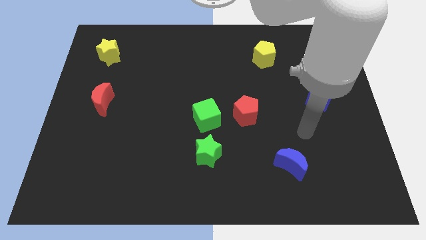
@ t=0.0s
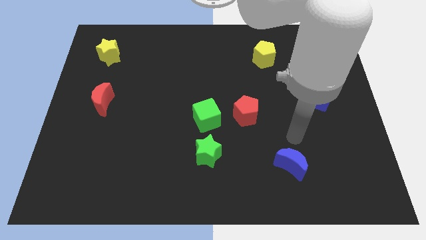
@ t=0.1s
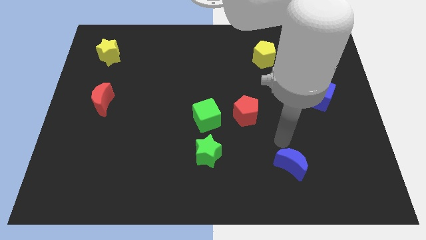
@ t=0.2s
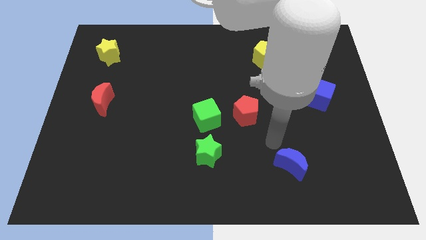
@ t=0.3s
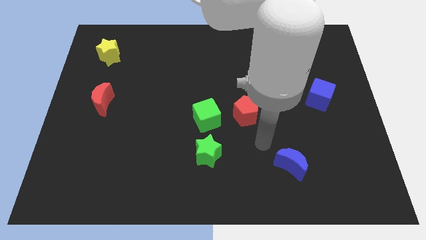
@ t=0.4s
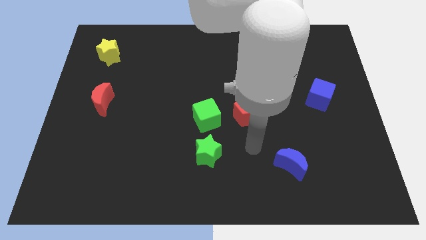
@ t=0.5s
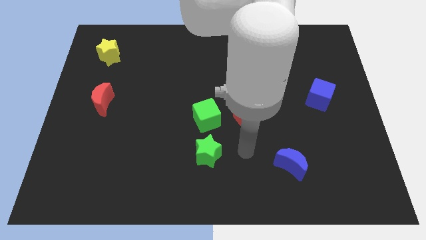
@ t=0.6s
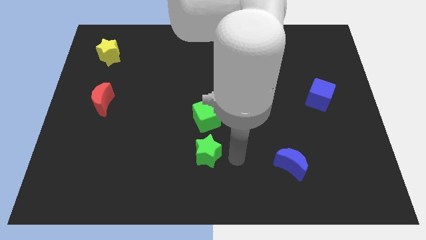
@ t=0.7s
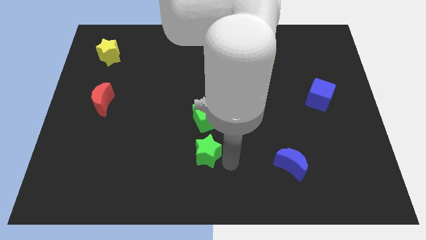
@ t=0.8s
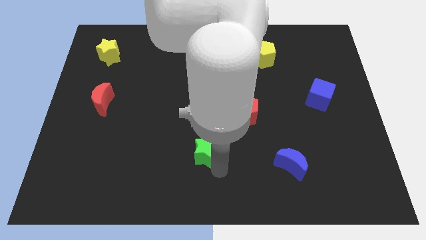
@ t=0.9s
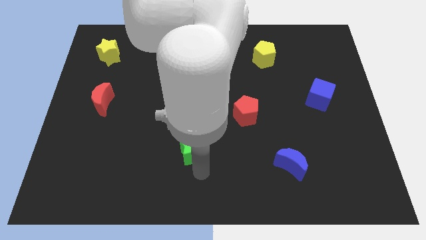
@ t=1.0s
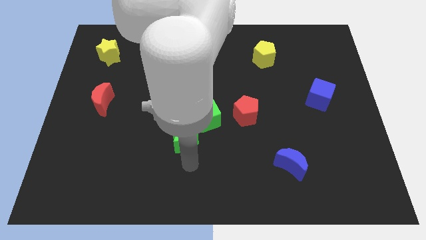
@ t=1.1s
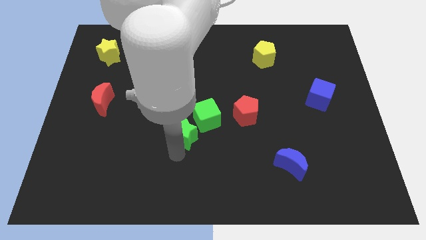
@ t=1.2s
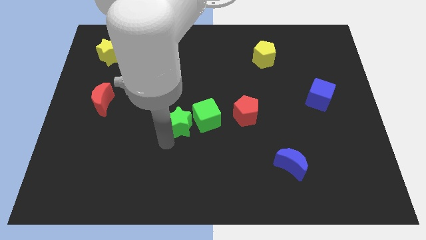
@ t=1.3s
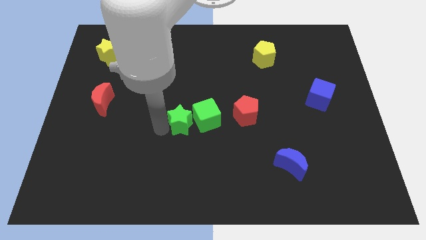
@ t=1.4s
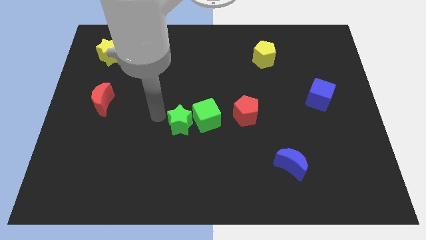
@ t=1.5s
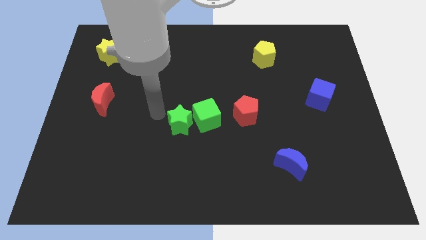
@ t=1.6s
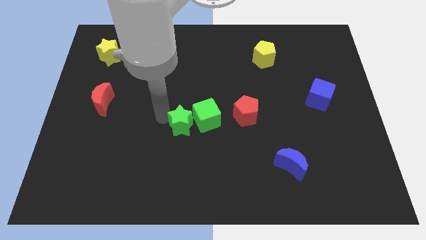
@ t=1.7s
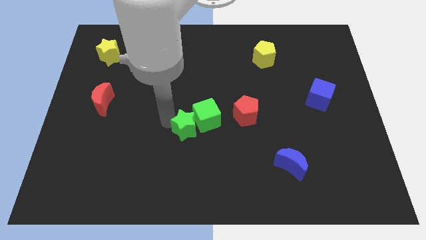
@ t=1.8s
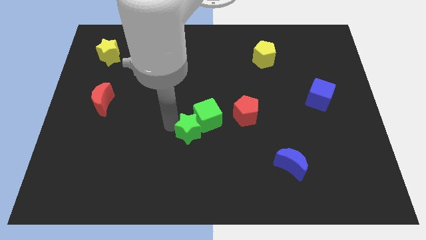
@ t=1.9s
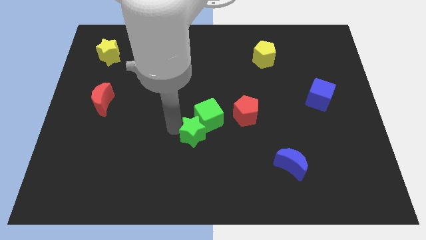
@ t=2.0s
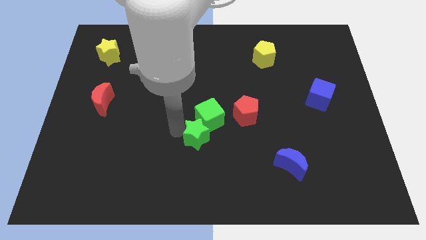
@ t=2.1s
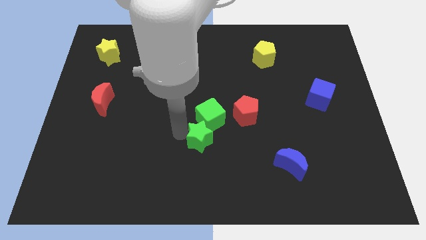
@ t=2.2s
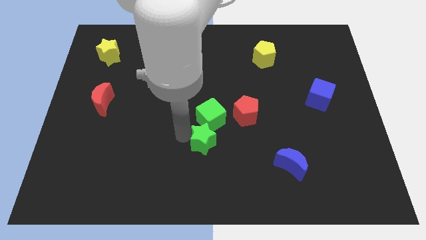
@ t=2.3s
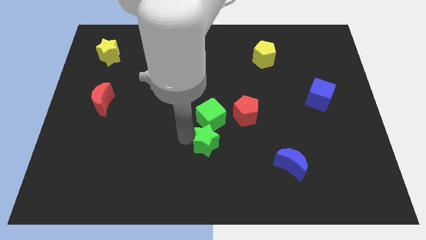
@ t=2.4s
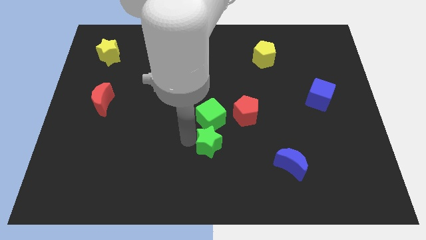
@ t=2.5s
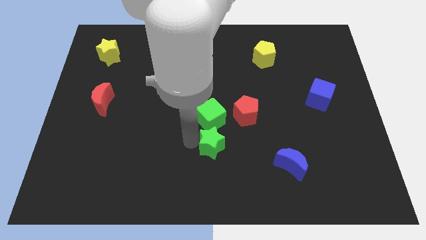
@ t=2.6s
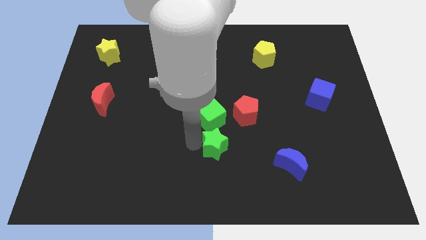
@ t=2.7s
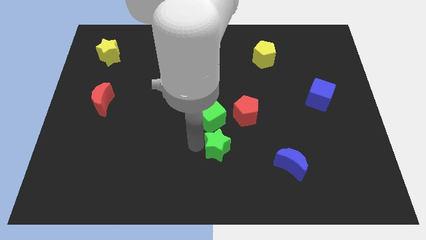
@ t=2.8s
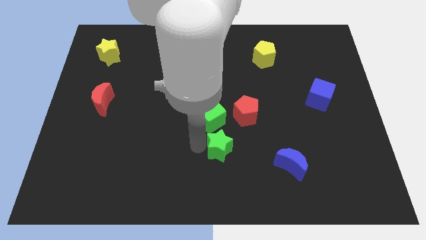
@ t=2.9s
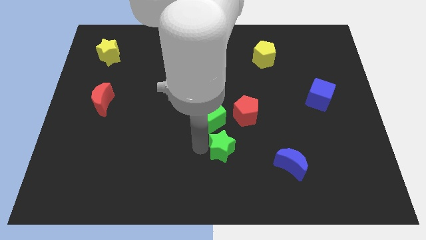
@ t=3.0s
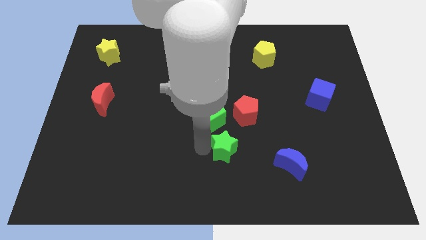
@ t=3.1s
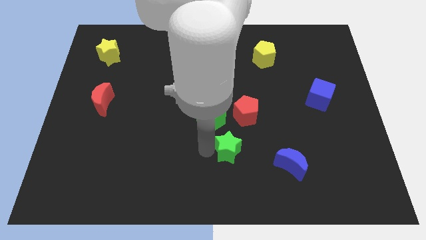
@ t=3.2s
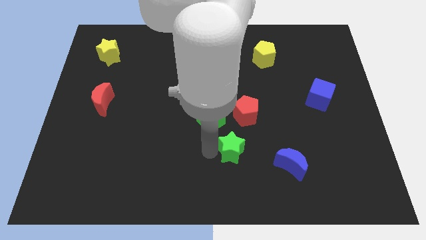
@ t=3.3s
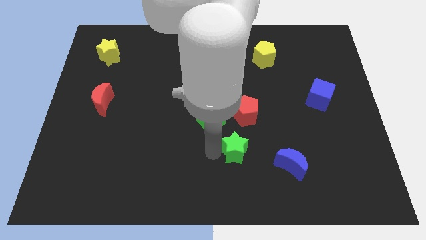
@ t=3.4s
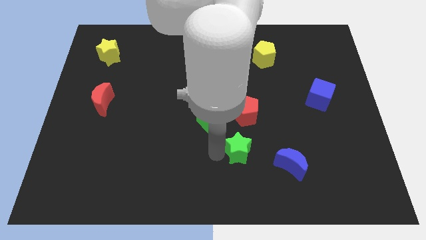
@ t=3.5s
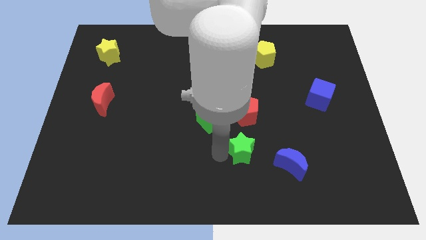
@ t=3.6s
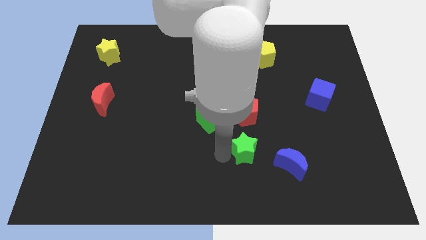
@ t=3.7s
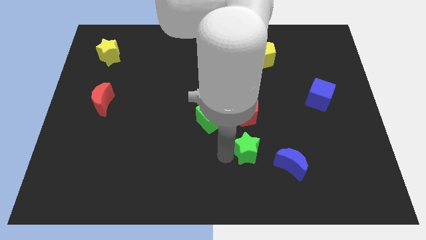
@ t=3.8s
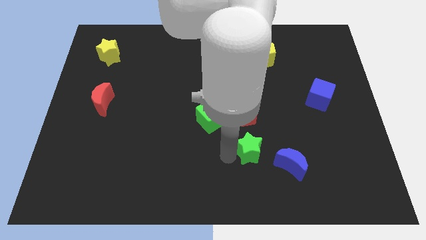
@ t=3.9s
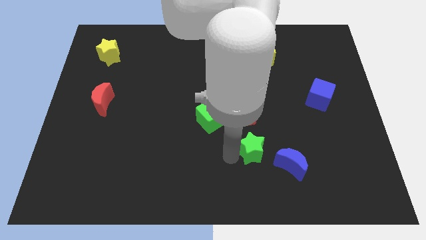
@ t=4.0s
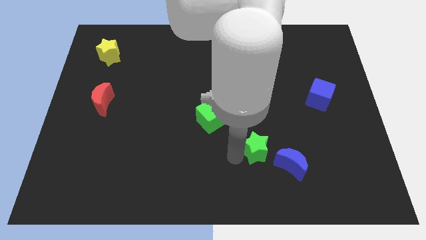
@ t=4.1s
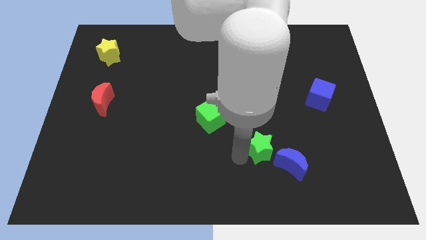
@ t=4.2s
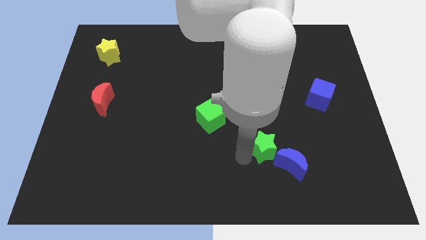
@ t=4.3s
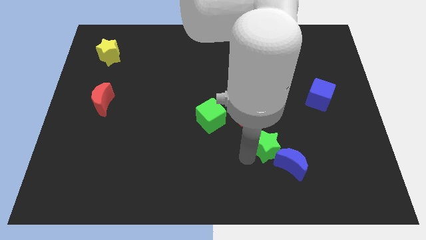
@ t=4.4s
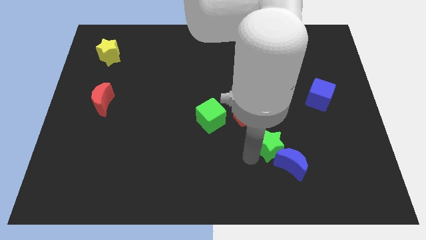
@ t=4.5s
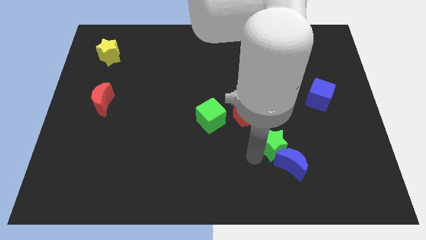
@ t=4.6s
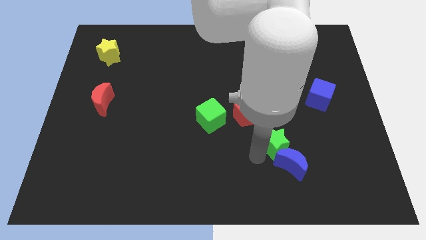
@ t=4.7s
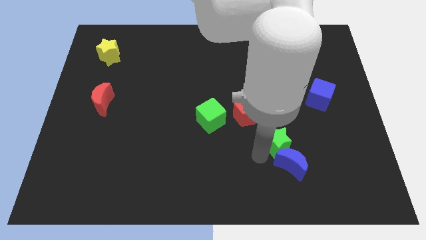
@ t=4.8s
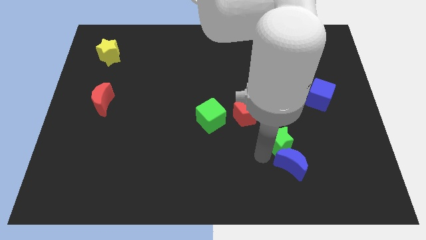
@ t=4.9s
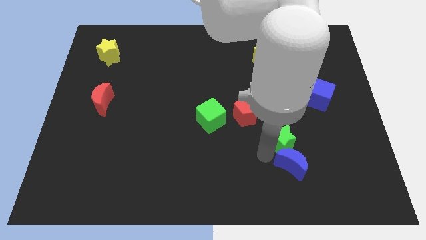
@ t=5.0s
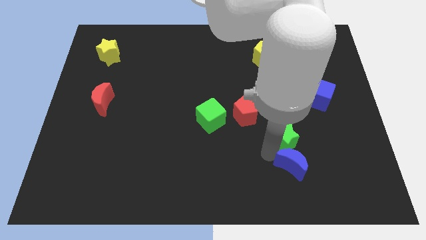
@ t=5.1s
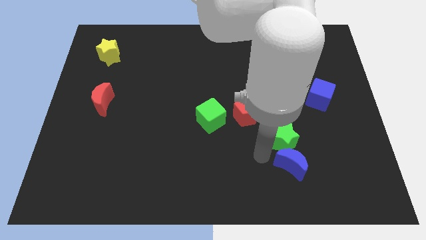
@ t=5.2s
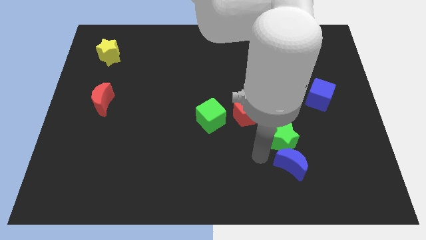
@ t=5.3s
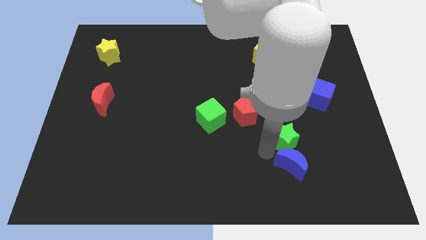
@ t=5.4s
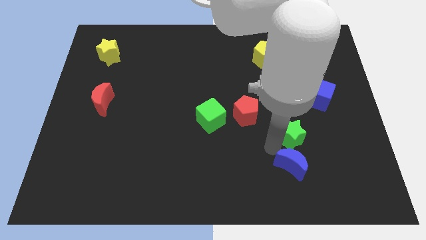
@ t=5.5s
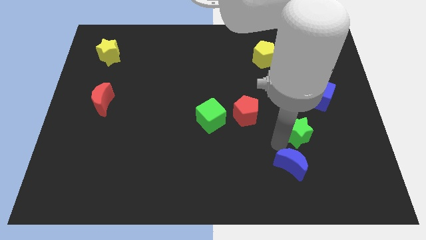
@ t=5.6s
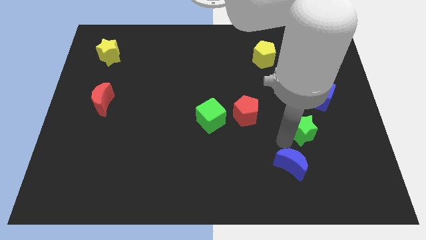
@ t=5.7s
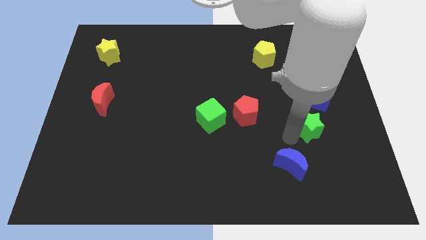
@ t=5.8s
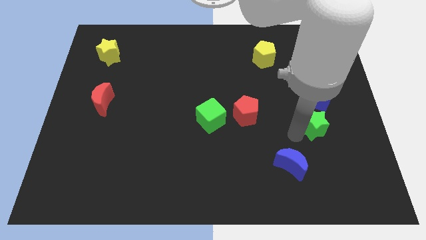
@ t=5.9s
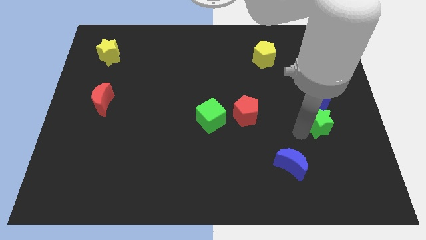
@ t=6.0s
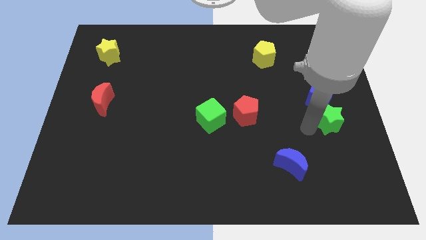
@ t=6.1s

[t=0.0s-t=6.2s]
put the green star to the right side

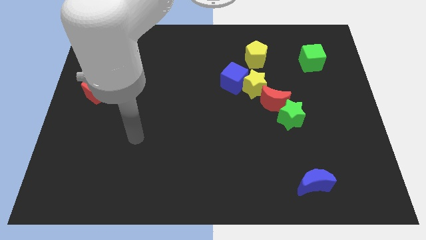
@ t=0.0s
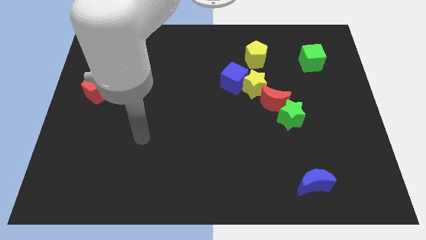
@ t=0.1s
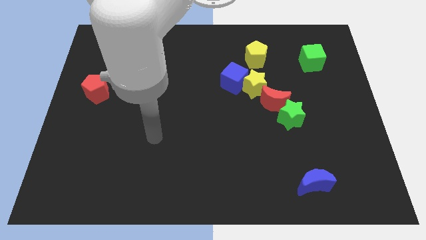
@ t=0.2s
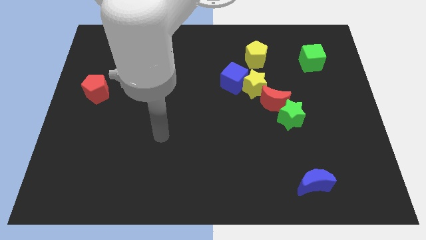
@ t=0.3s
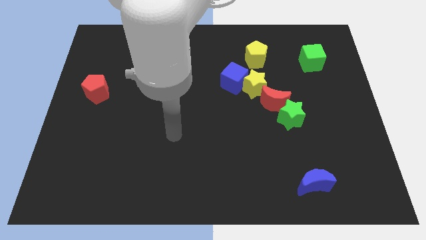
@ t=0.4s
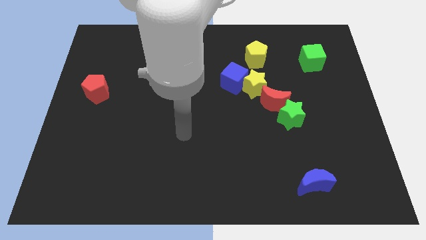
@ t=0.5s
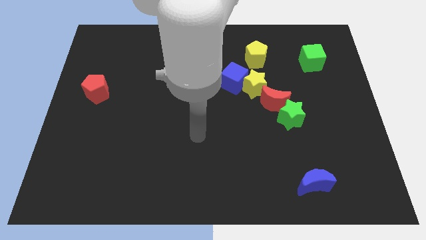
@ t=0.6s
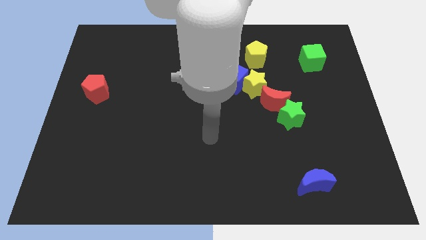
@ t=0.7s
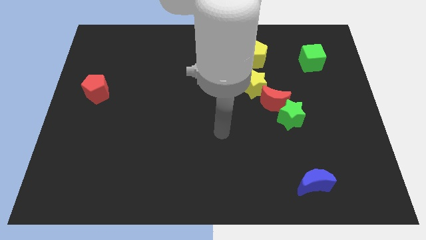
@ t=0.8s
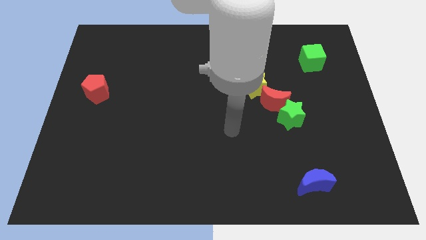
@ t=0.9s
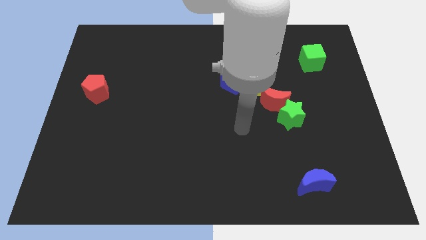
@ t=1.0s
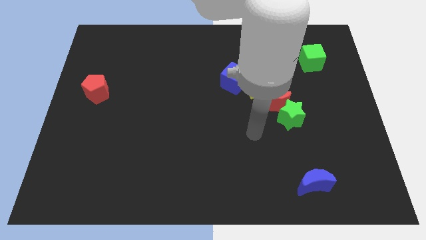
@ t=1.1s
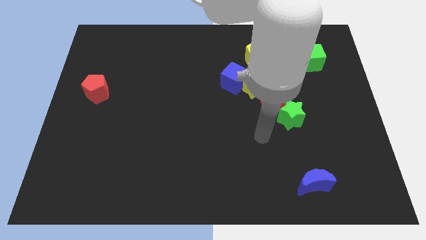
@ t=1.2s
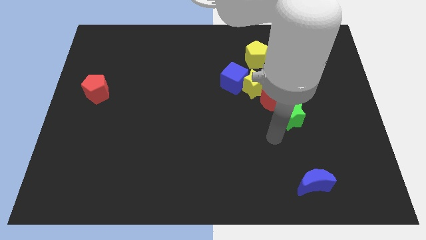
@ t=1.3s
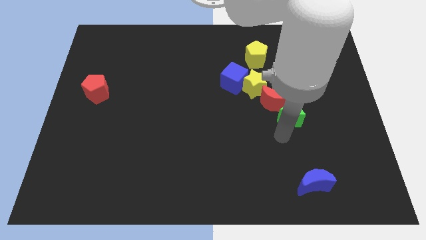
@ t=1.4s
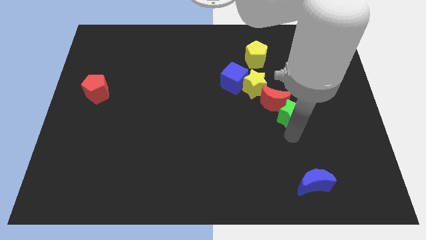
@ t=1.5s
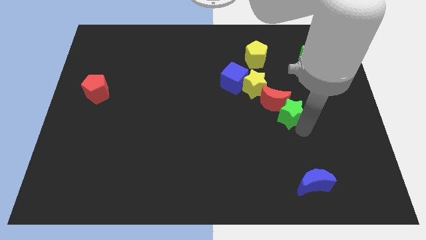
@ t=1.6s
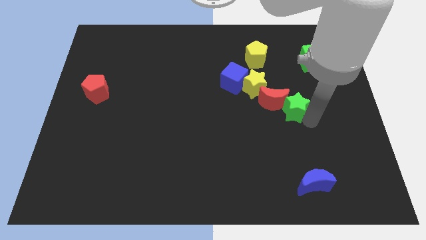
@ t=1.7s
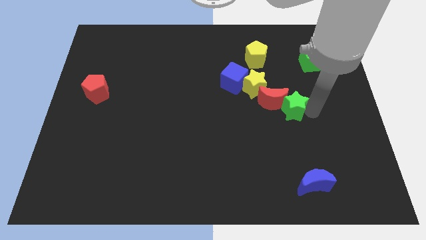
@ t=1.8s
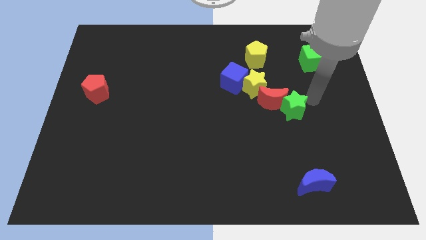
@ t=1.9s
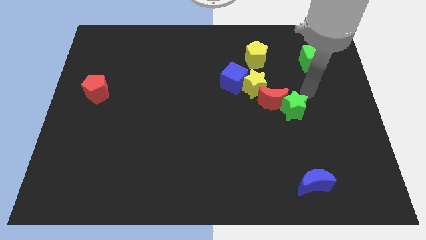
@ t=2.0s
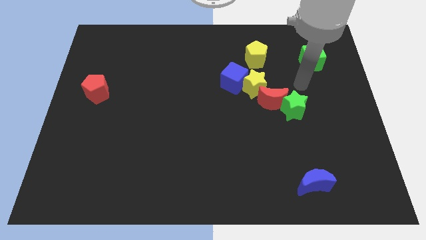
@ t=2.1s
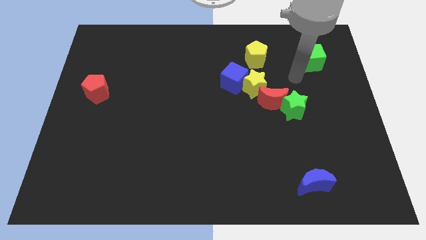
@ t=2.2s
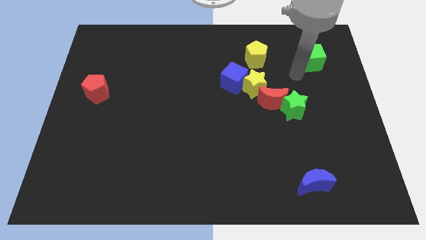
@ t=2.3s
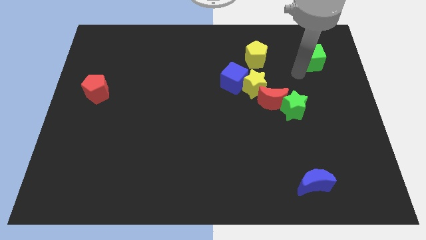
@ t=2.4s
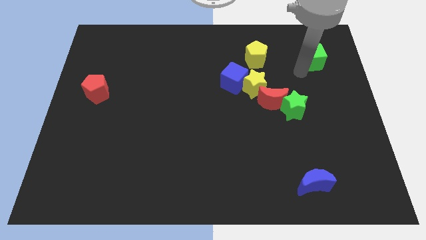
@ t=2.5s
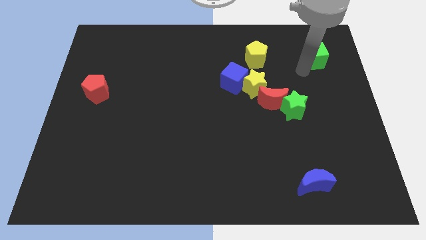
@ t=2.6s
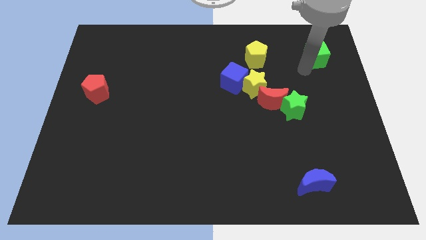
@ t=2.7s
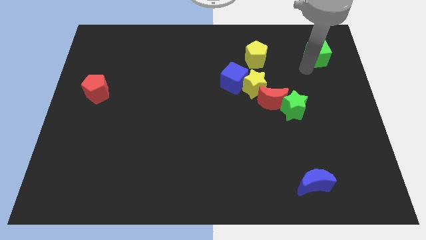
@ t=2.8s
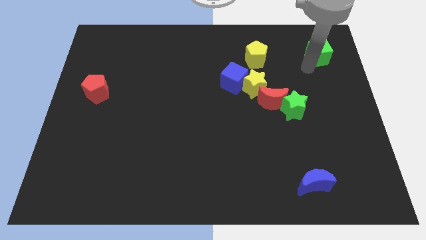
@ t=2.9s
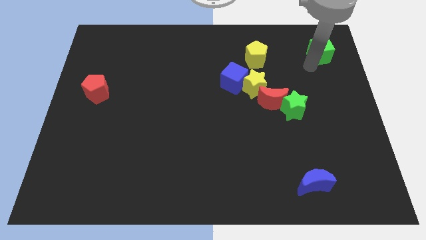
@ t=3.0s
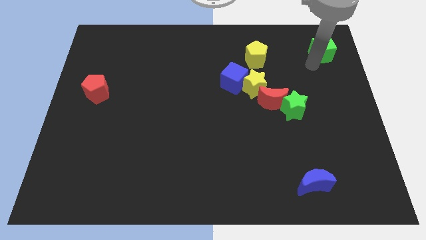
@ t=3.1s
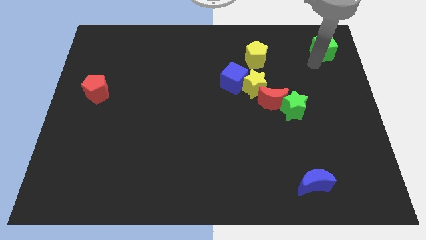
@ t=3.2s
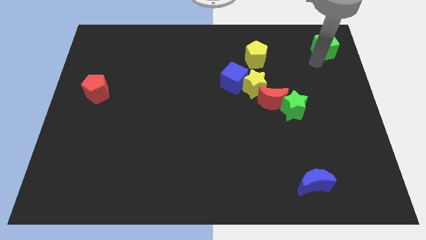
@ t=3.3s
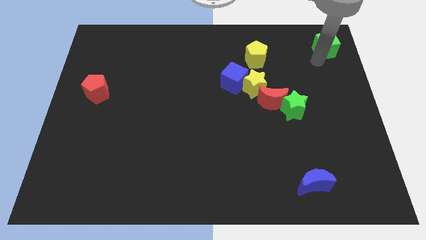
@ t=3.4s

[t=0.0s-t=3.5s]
put the green cube to the top right of the board
